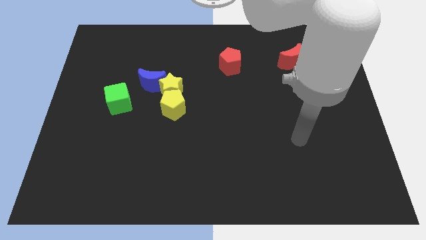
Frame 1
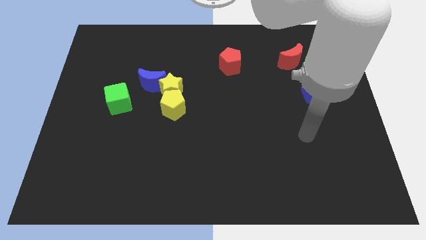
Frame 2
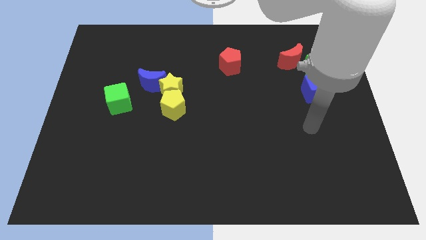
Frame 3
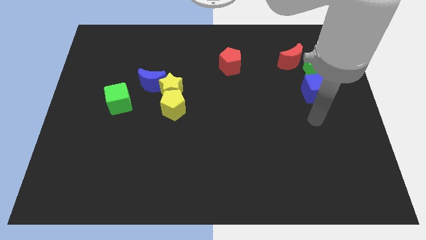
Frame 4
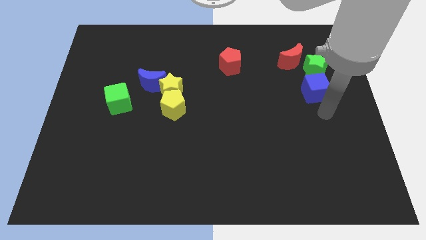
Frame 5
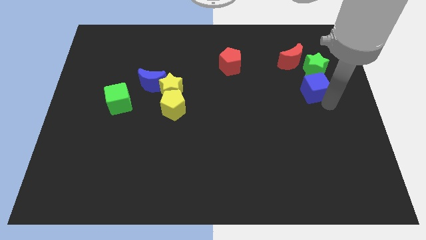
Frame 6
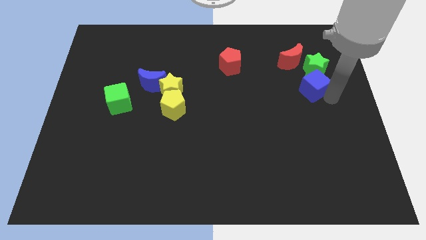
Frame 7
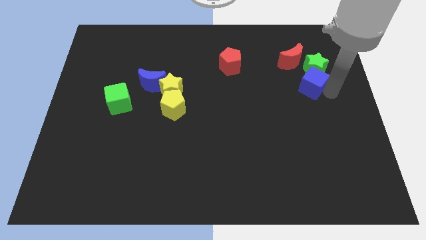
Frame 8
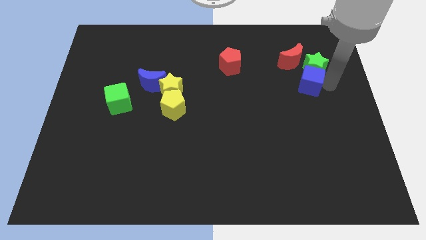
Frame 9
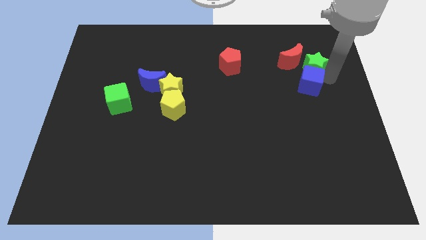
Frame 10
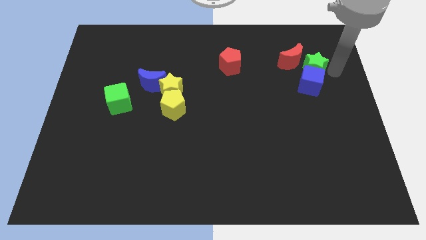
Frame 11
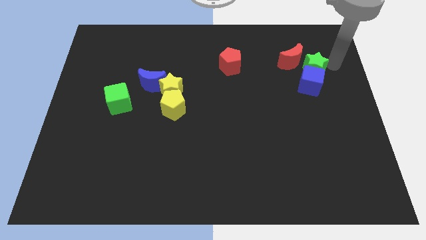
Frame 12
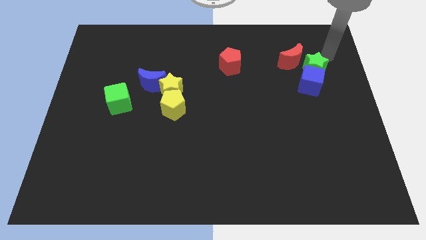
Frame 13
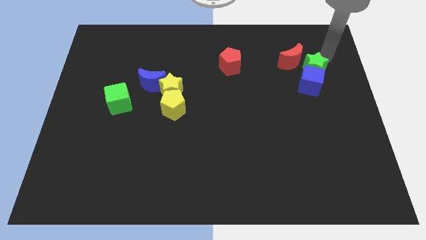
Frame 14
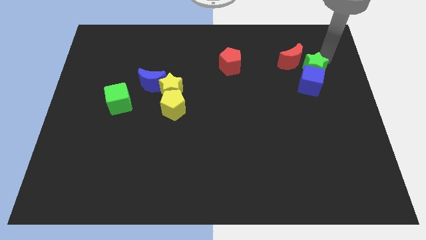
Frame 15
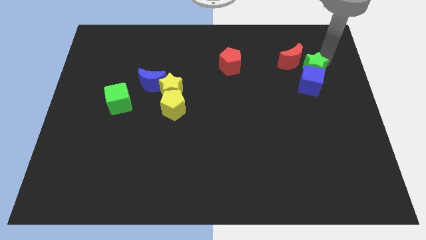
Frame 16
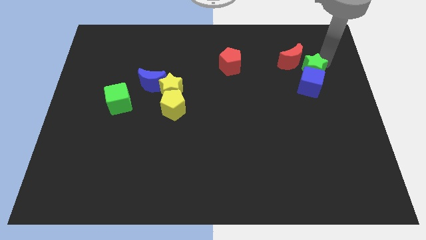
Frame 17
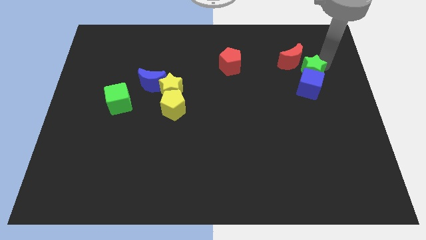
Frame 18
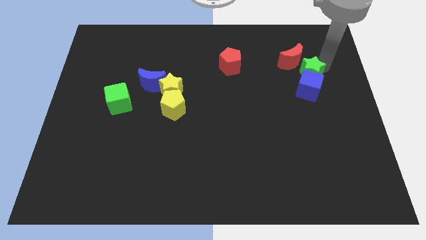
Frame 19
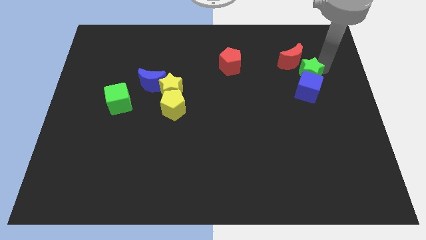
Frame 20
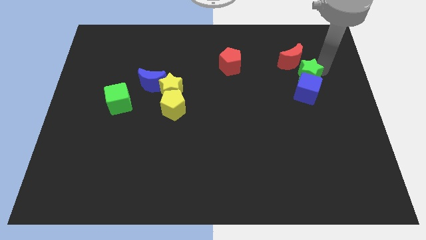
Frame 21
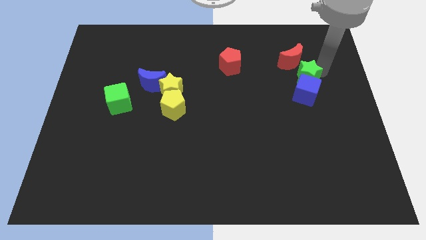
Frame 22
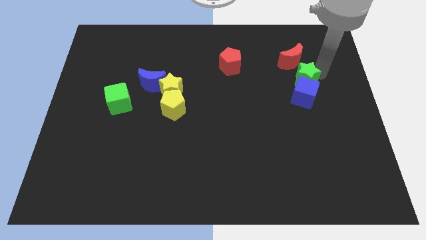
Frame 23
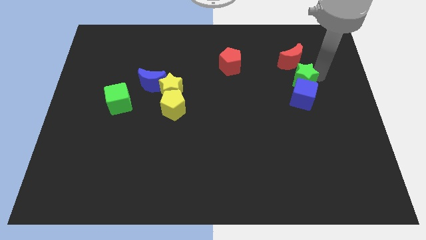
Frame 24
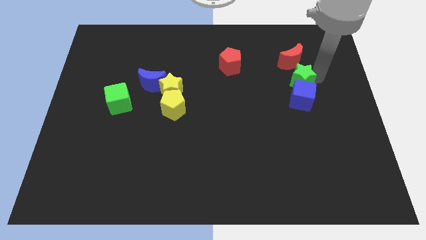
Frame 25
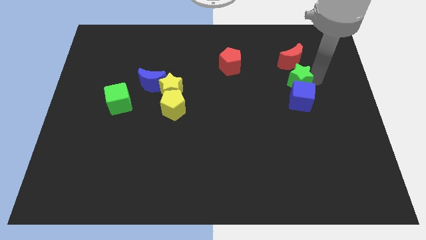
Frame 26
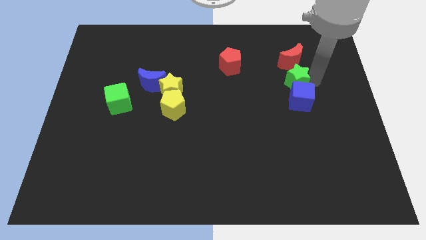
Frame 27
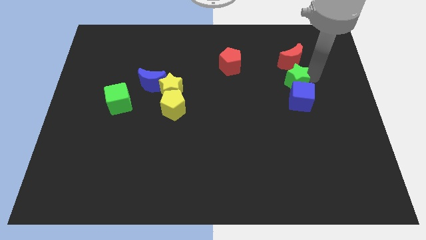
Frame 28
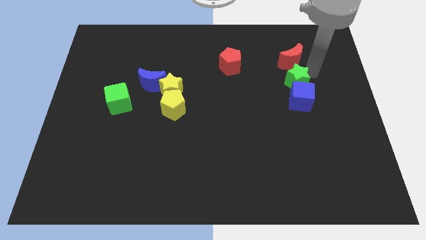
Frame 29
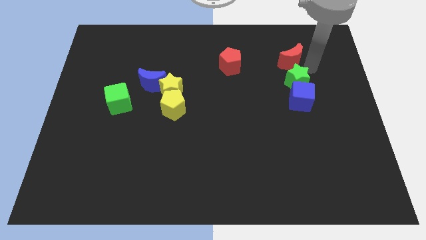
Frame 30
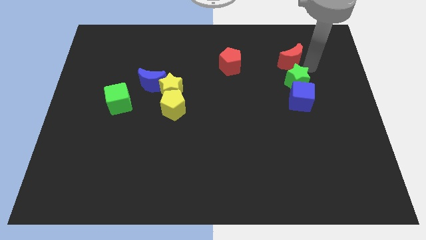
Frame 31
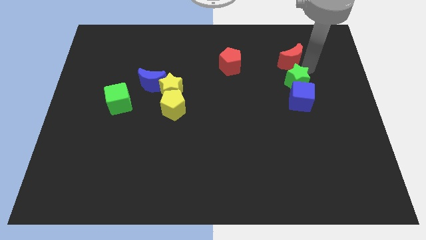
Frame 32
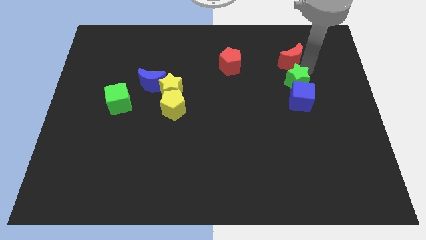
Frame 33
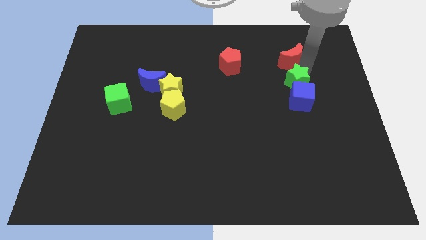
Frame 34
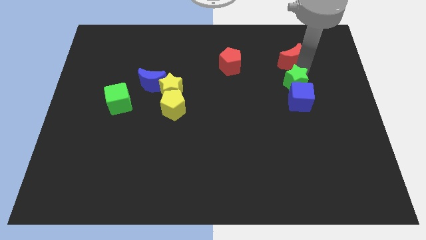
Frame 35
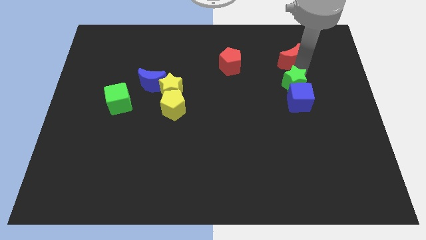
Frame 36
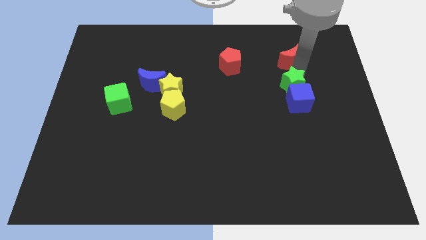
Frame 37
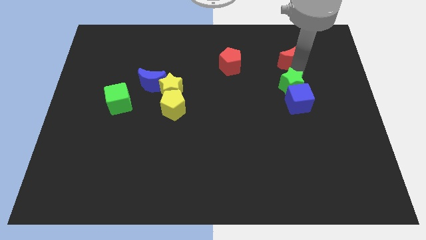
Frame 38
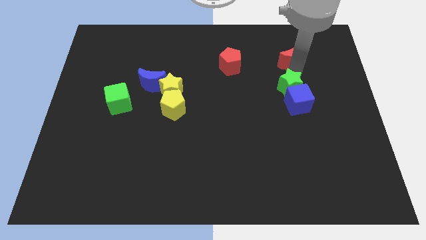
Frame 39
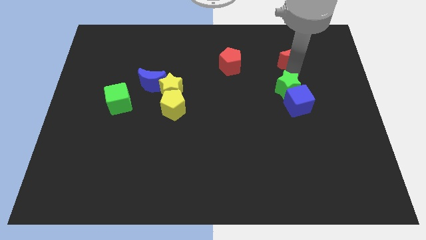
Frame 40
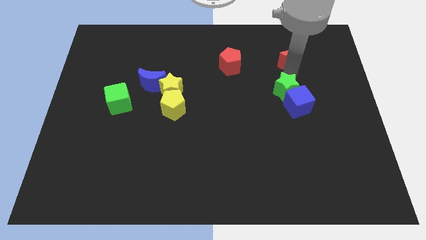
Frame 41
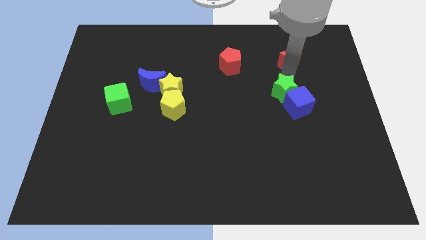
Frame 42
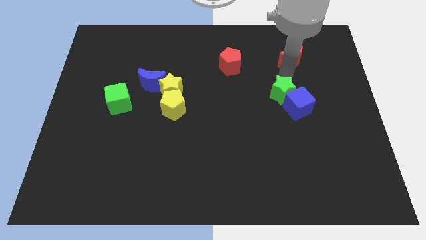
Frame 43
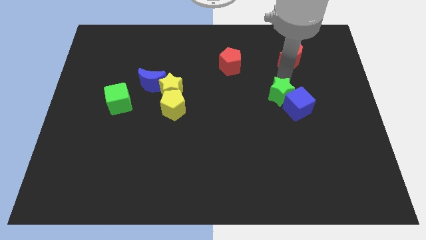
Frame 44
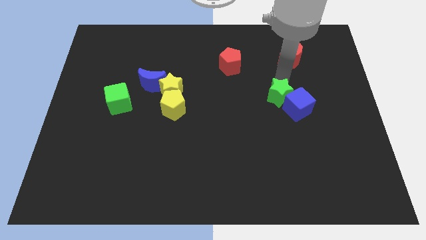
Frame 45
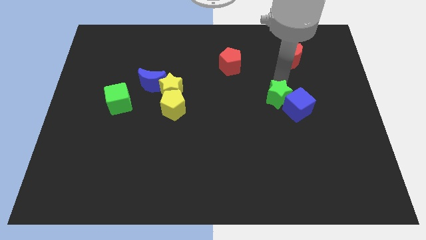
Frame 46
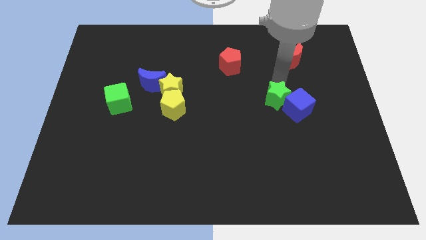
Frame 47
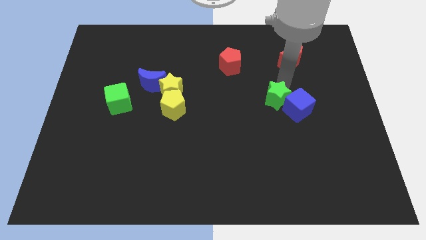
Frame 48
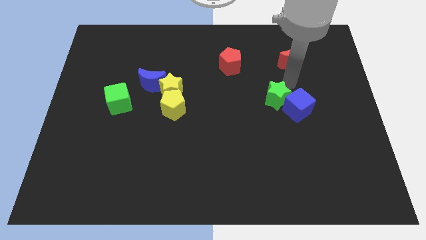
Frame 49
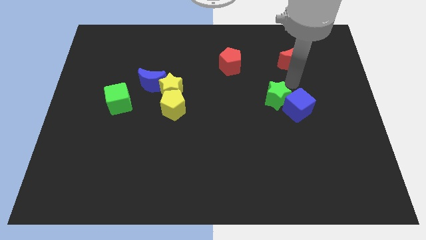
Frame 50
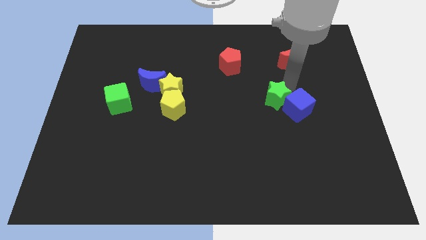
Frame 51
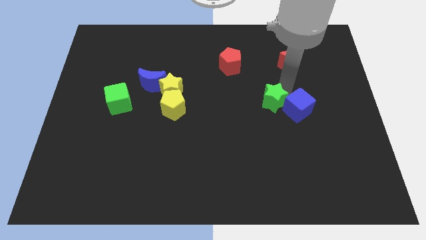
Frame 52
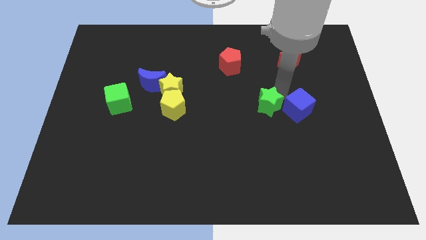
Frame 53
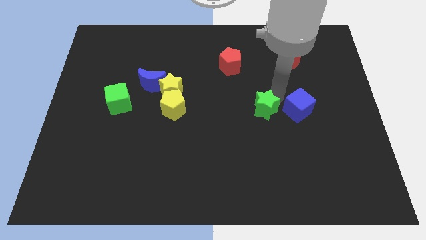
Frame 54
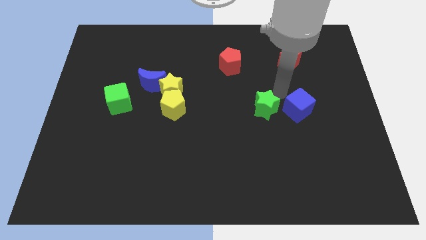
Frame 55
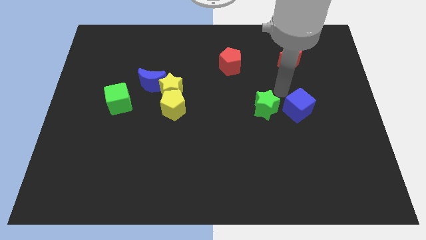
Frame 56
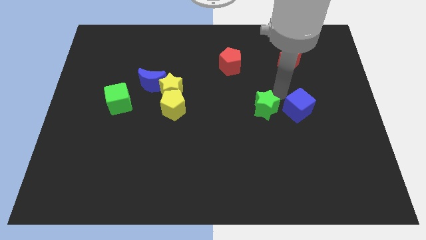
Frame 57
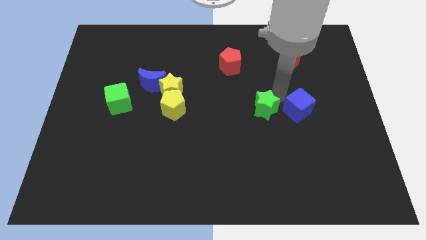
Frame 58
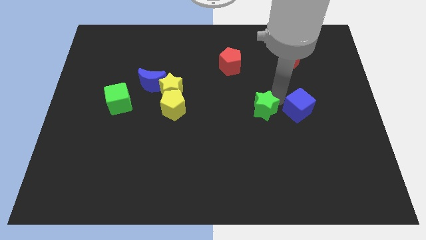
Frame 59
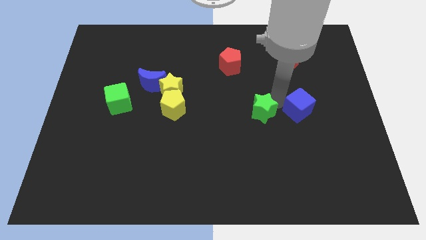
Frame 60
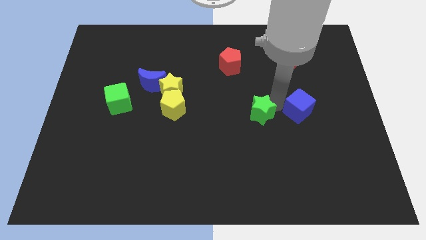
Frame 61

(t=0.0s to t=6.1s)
push the green star diagonally downwards and to the left

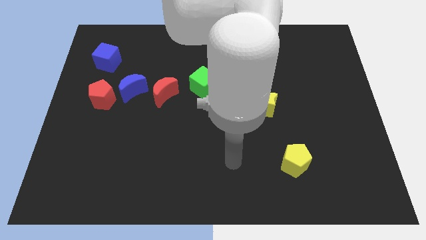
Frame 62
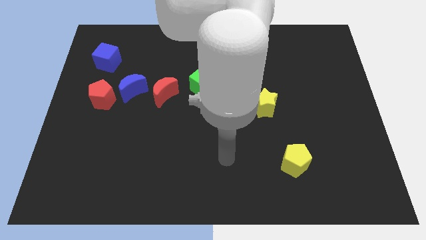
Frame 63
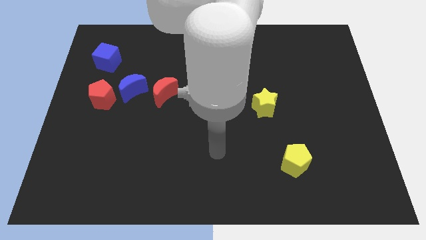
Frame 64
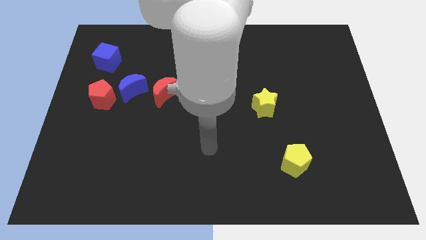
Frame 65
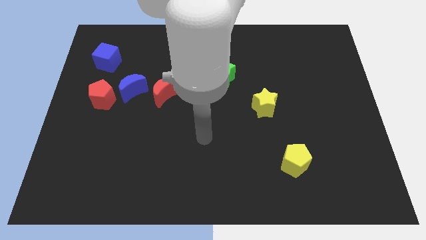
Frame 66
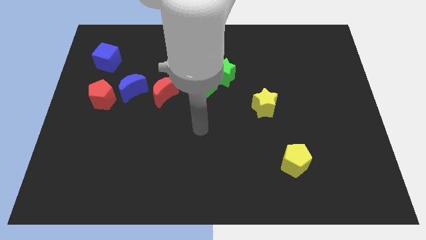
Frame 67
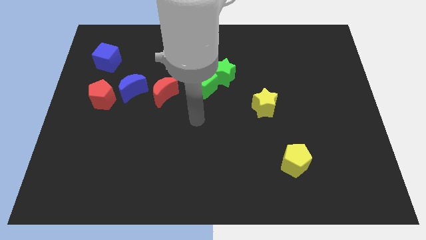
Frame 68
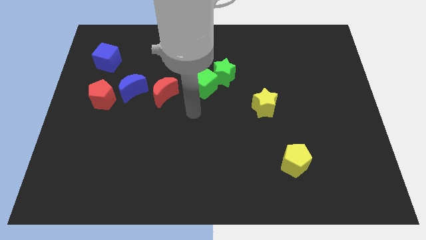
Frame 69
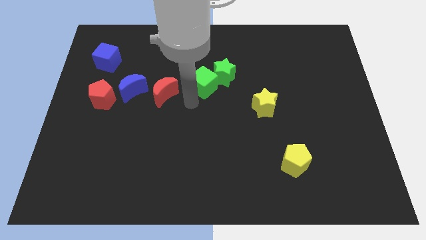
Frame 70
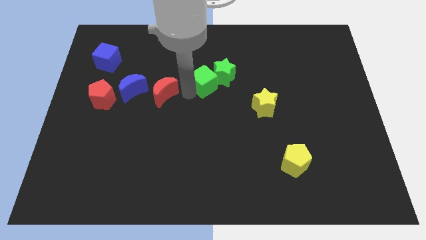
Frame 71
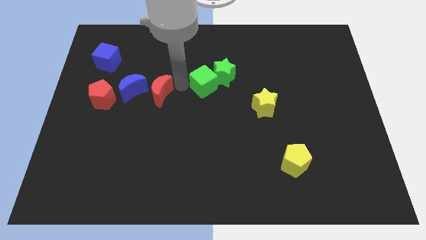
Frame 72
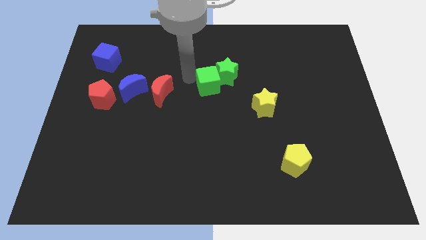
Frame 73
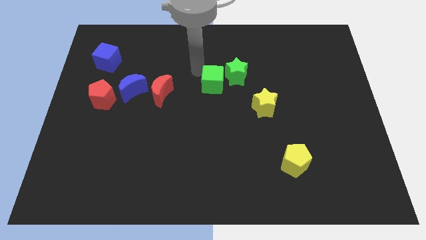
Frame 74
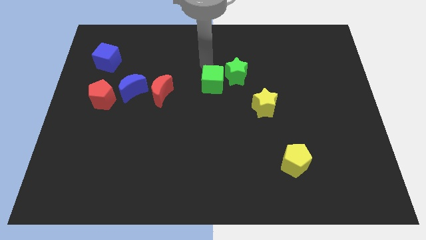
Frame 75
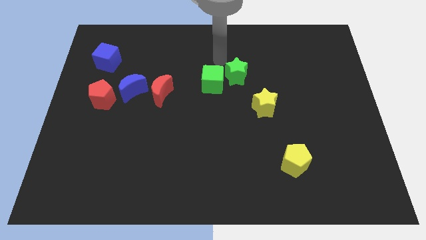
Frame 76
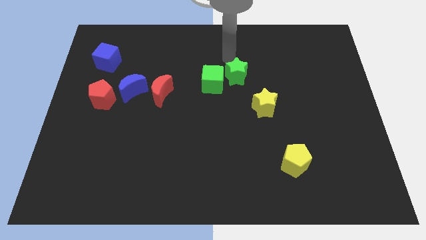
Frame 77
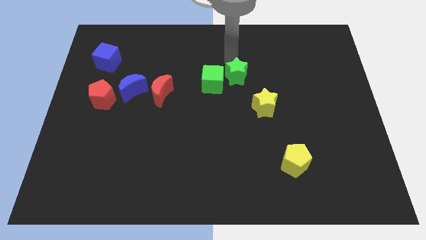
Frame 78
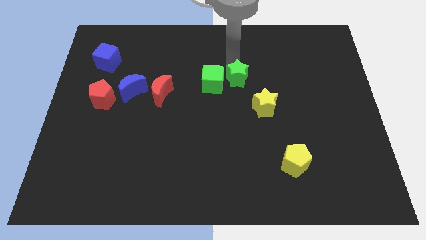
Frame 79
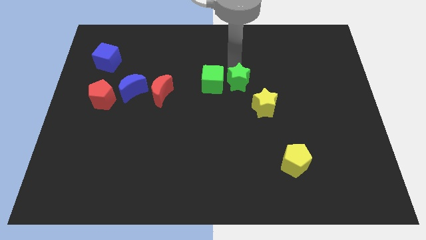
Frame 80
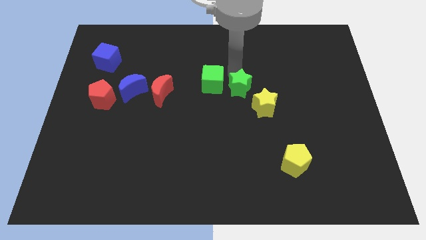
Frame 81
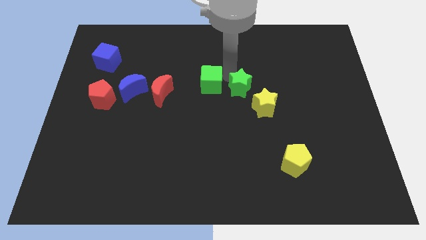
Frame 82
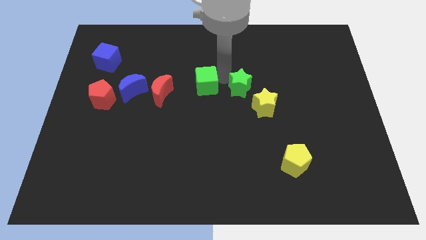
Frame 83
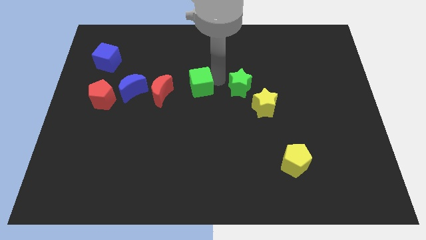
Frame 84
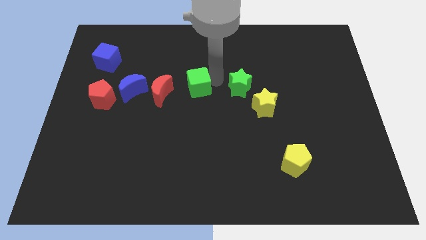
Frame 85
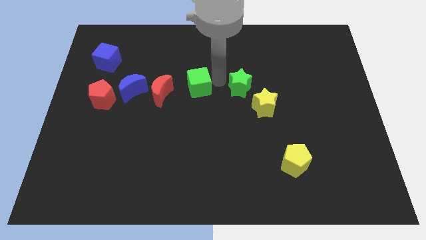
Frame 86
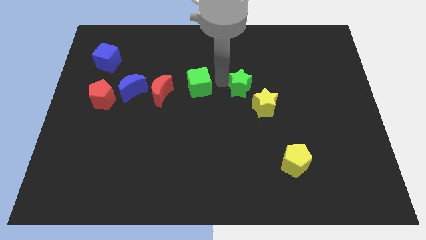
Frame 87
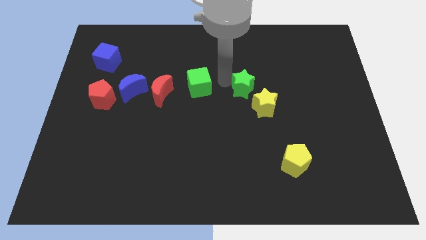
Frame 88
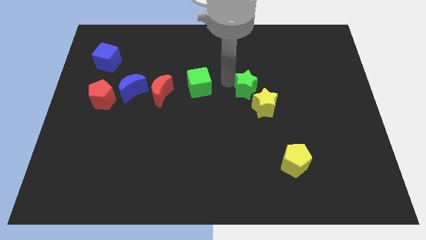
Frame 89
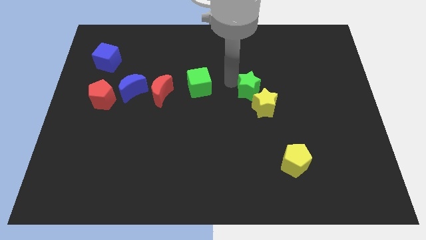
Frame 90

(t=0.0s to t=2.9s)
slightly move the green star downwards and right diagonally
